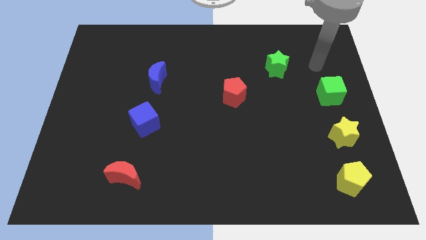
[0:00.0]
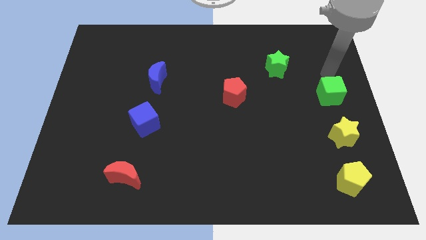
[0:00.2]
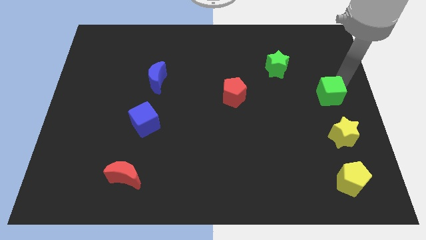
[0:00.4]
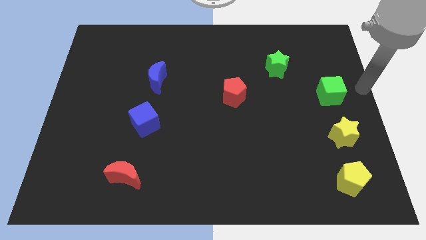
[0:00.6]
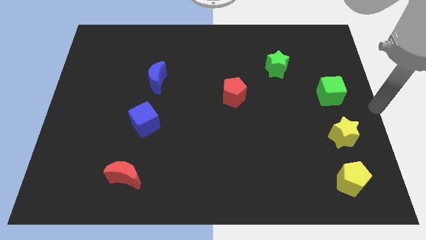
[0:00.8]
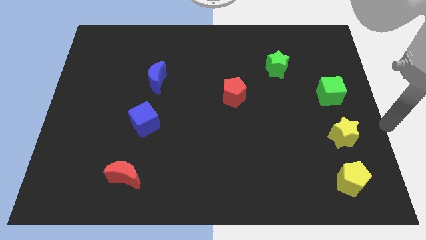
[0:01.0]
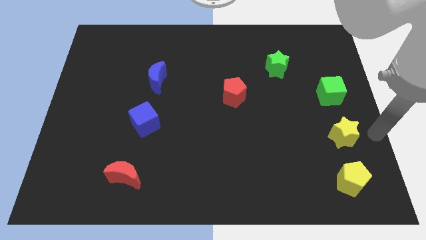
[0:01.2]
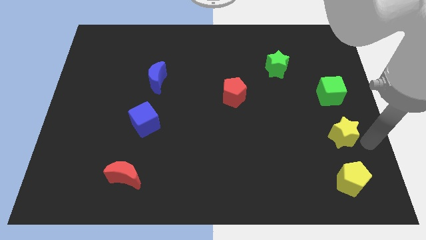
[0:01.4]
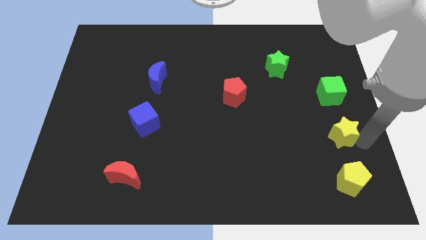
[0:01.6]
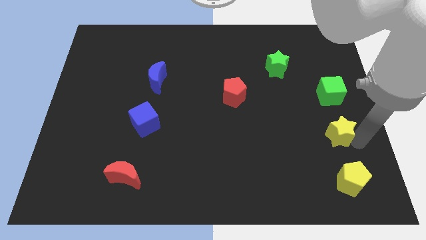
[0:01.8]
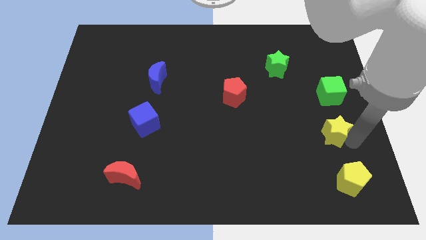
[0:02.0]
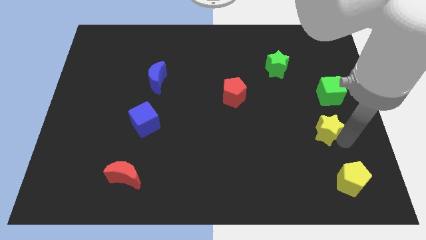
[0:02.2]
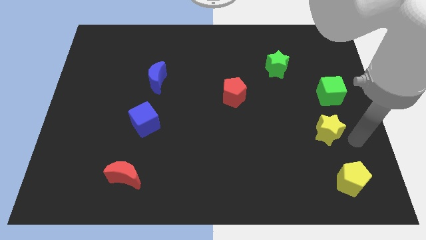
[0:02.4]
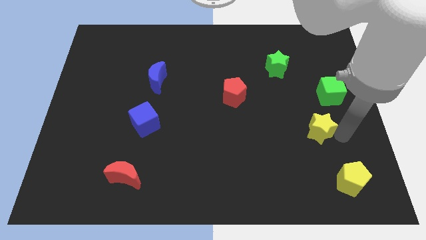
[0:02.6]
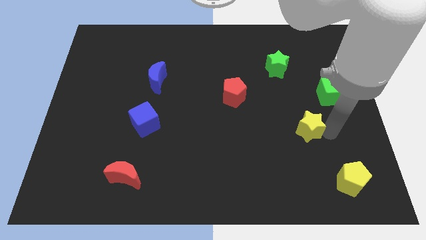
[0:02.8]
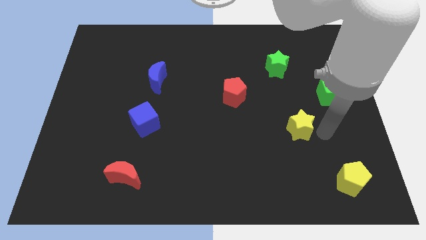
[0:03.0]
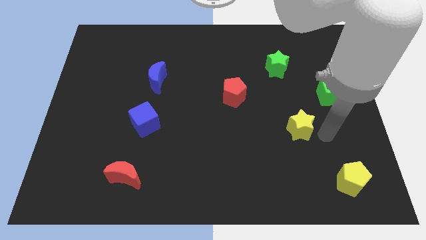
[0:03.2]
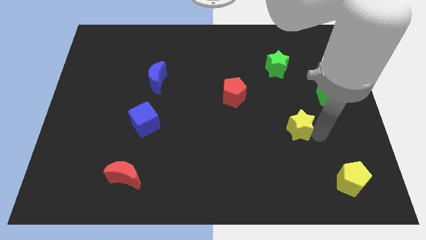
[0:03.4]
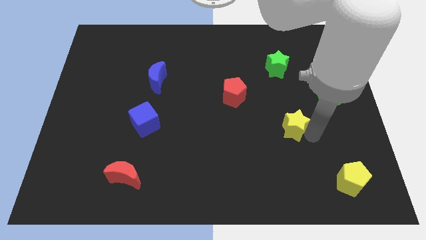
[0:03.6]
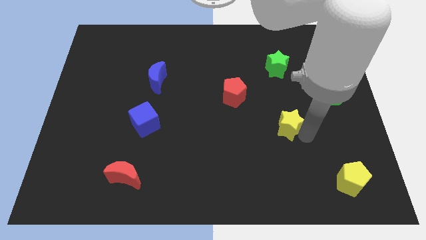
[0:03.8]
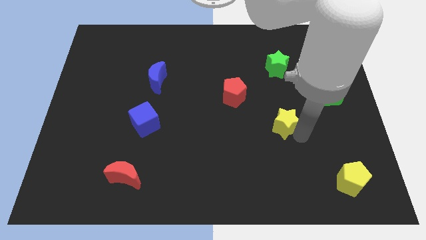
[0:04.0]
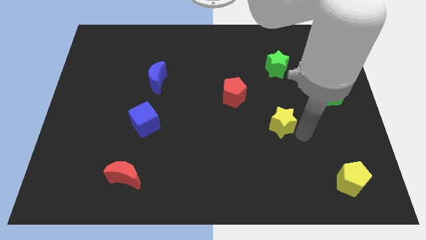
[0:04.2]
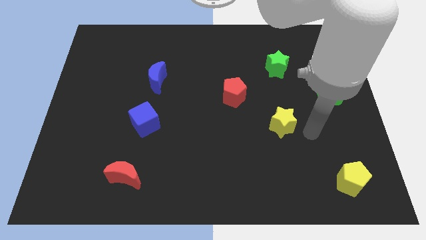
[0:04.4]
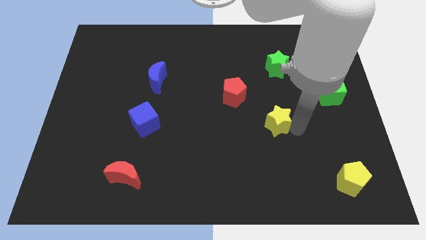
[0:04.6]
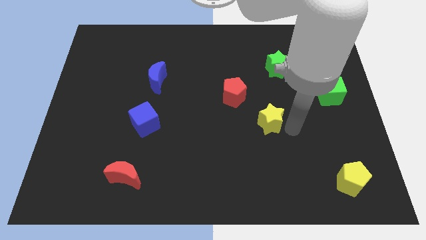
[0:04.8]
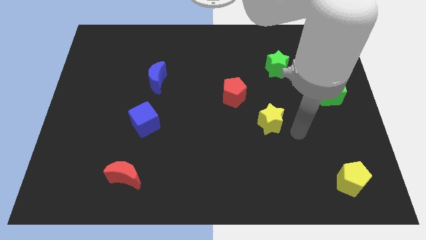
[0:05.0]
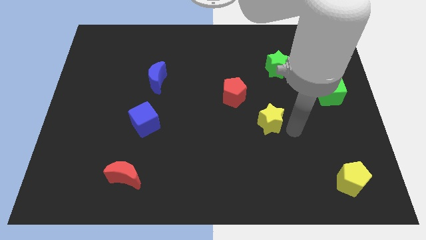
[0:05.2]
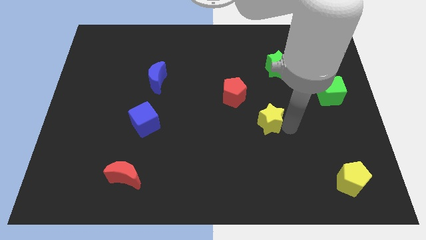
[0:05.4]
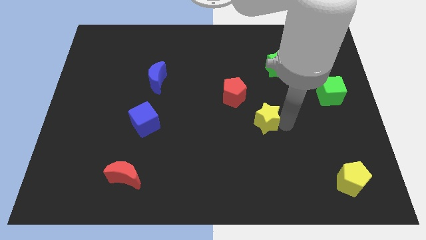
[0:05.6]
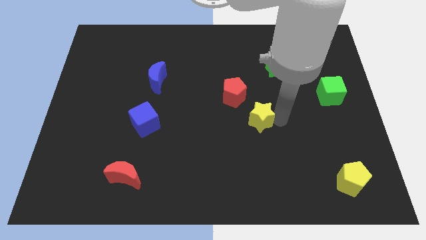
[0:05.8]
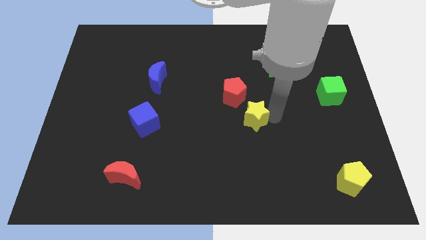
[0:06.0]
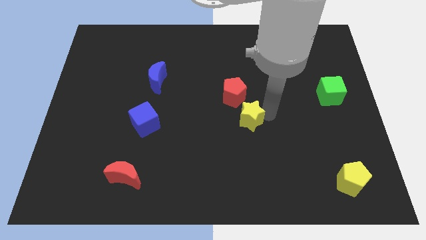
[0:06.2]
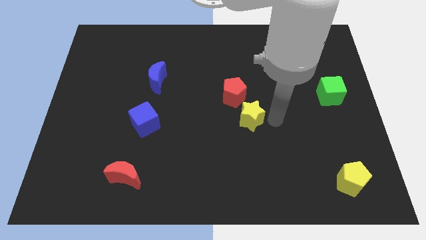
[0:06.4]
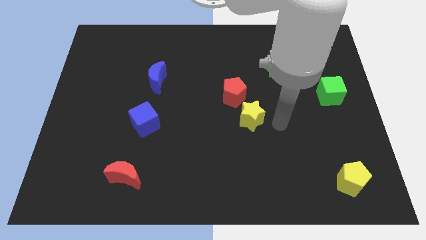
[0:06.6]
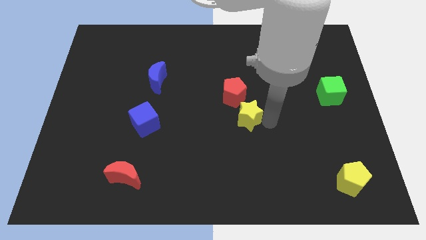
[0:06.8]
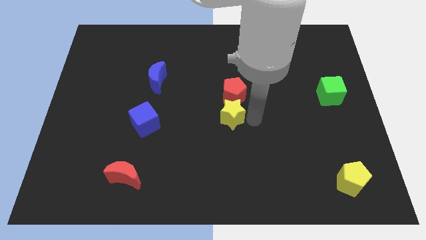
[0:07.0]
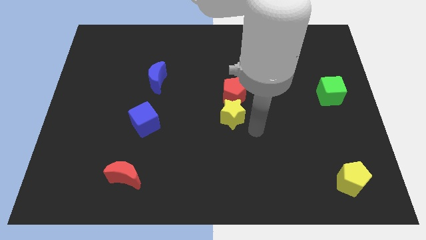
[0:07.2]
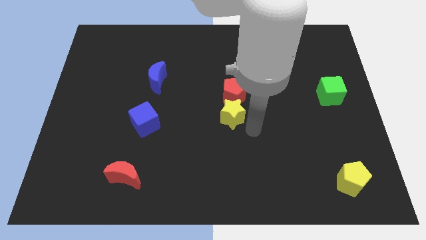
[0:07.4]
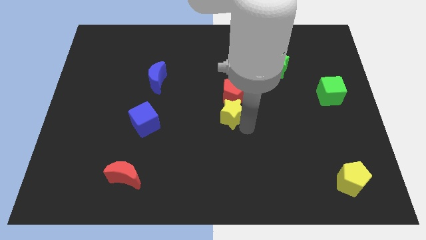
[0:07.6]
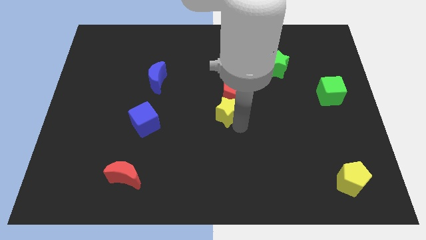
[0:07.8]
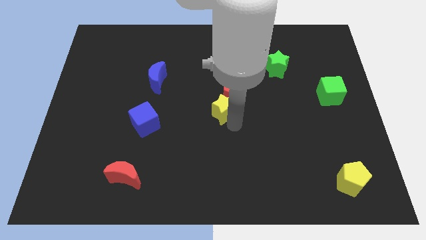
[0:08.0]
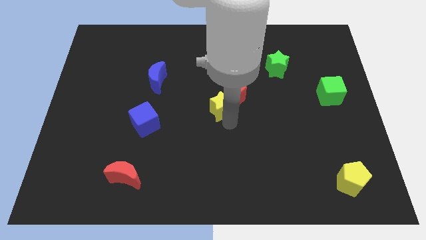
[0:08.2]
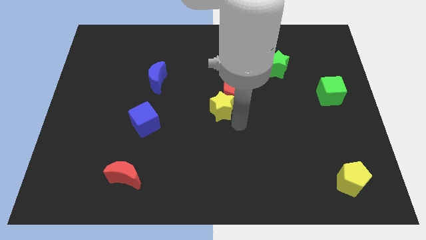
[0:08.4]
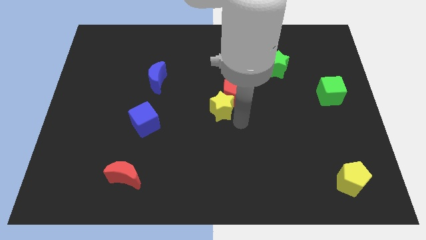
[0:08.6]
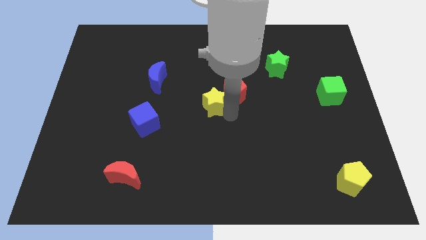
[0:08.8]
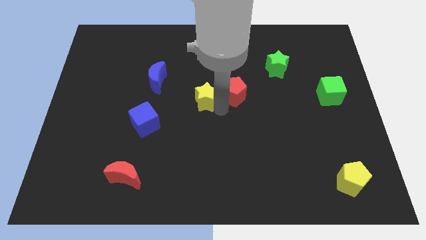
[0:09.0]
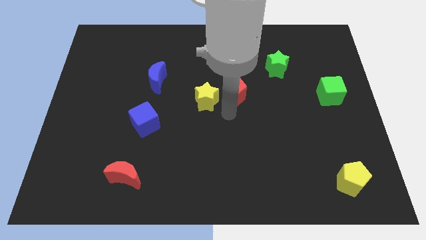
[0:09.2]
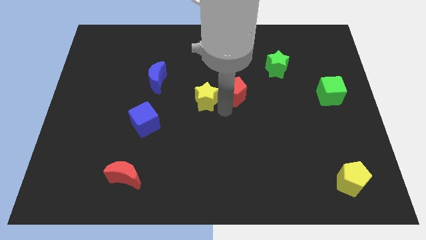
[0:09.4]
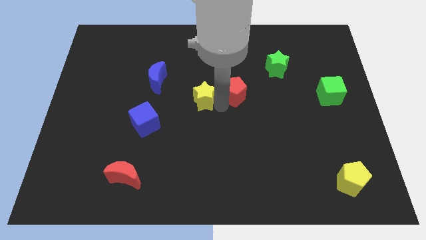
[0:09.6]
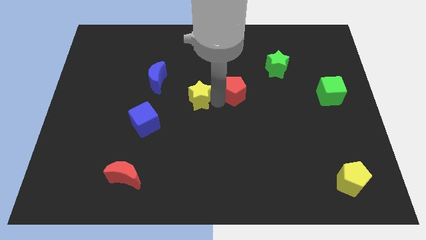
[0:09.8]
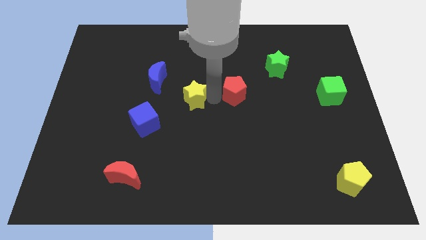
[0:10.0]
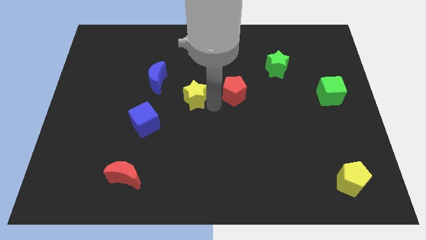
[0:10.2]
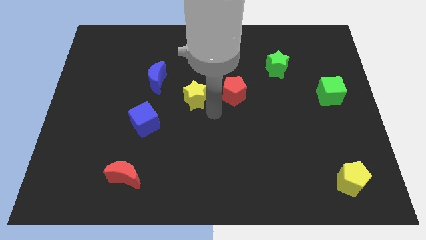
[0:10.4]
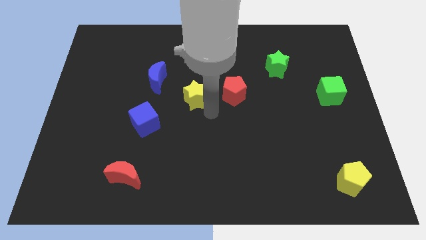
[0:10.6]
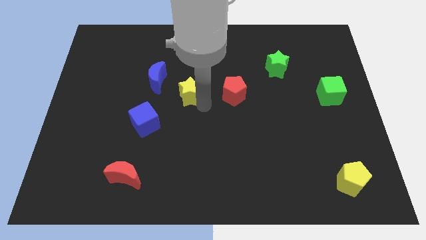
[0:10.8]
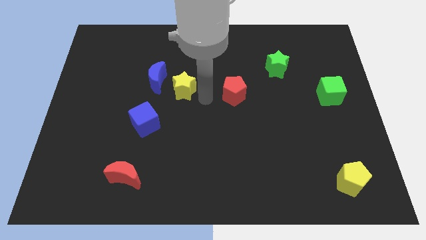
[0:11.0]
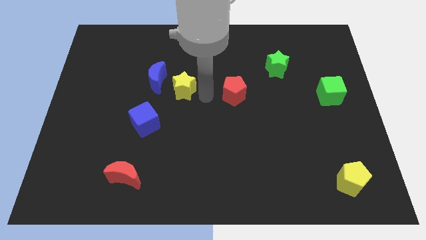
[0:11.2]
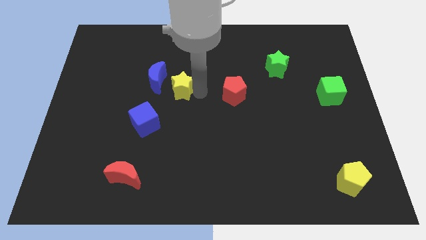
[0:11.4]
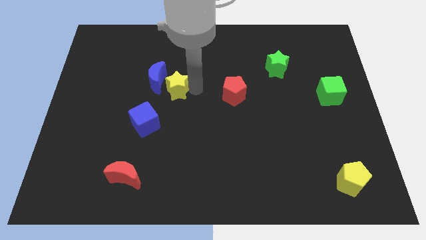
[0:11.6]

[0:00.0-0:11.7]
put the yellow star towards the blue moon

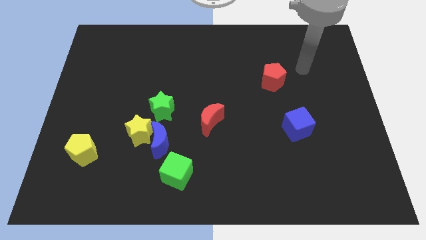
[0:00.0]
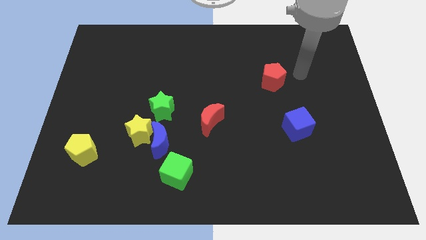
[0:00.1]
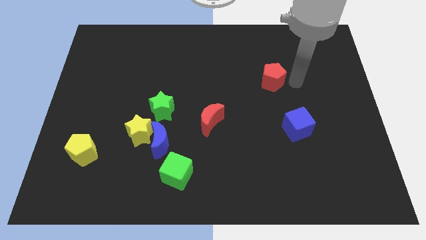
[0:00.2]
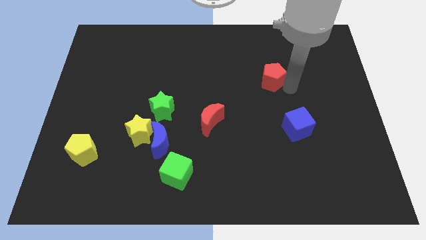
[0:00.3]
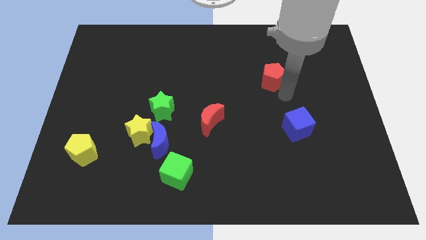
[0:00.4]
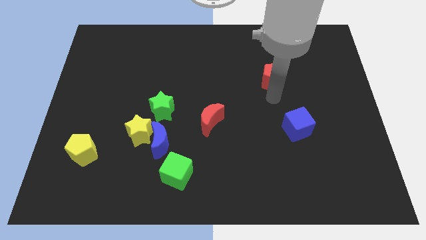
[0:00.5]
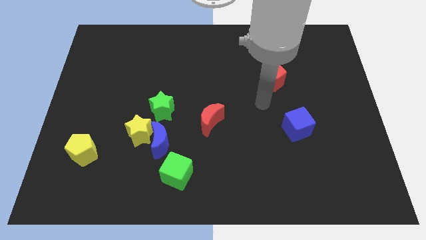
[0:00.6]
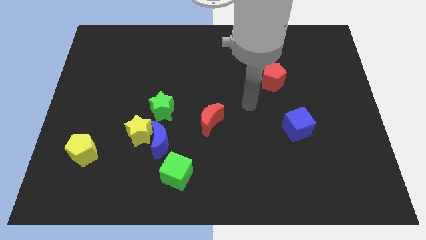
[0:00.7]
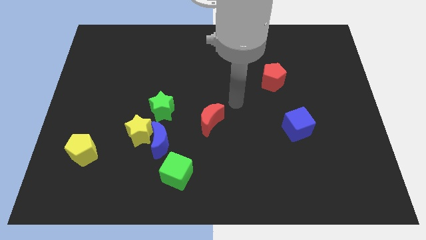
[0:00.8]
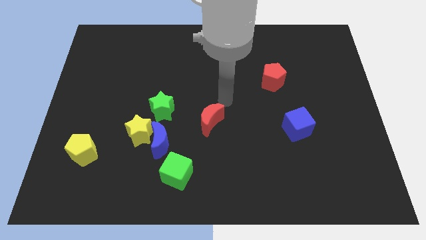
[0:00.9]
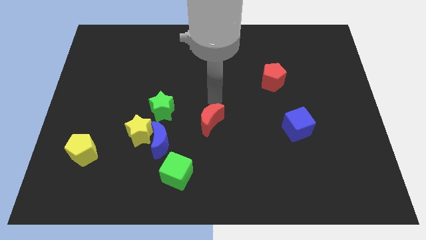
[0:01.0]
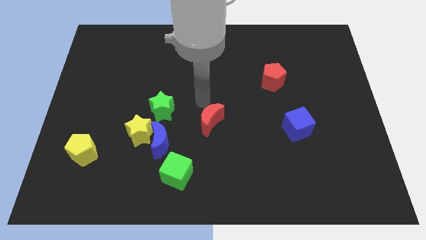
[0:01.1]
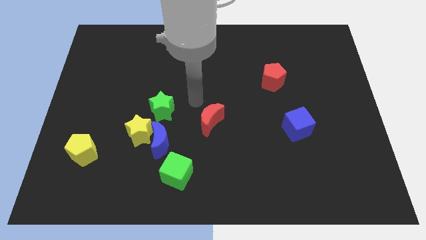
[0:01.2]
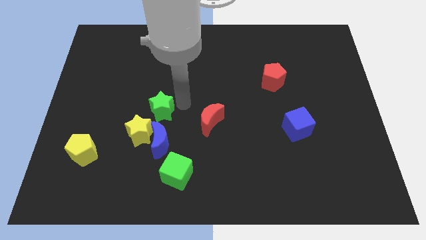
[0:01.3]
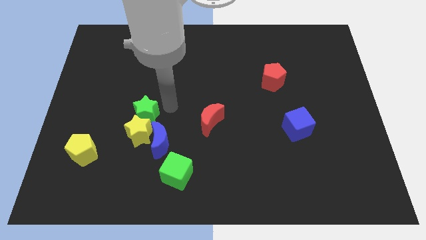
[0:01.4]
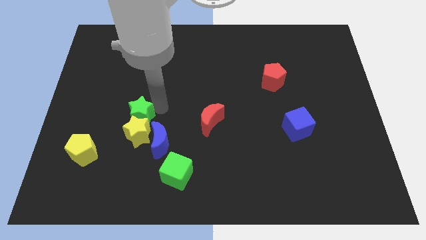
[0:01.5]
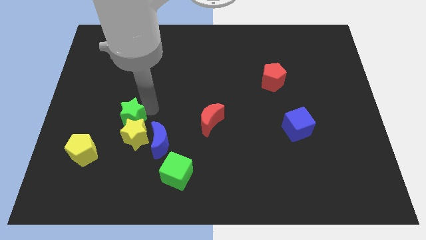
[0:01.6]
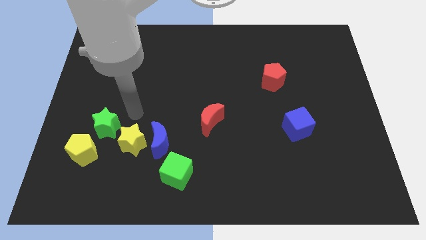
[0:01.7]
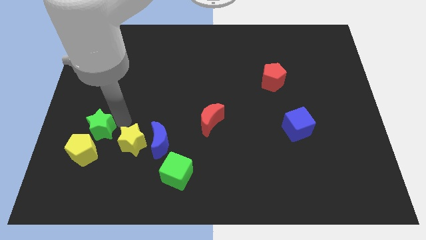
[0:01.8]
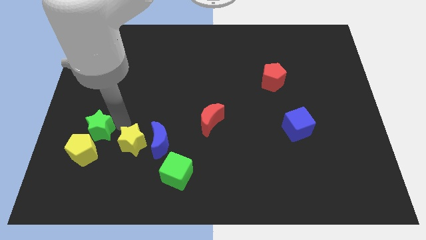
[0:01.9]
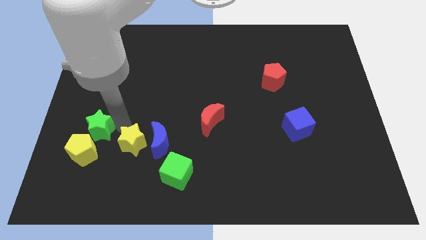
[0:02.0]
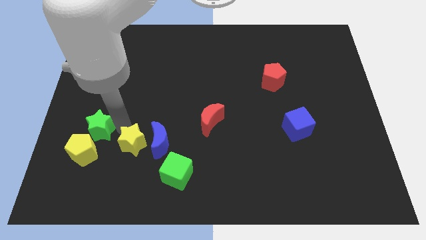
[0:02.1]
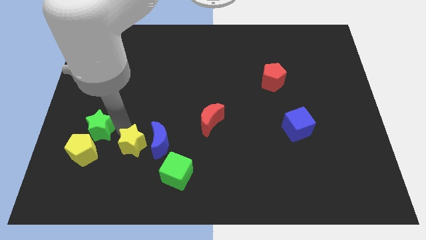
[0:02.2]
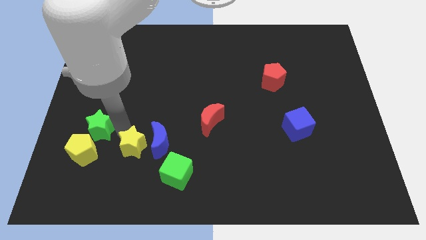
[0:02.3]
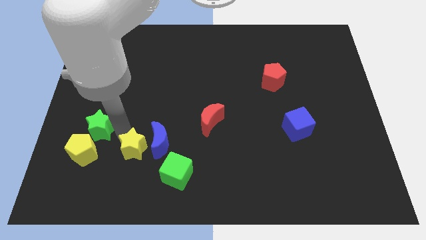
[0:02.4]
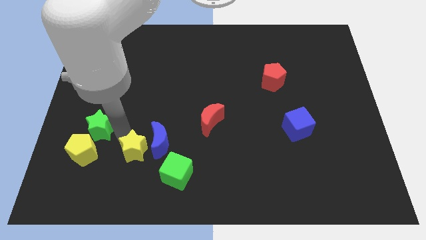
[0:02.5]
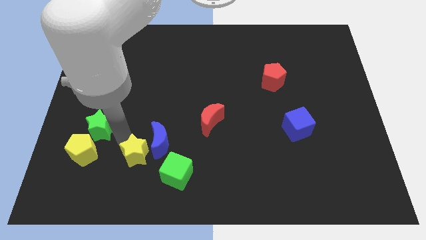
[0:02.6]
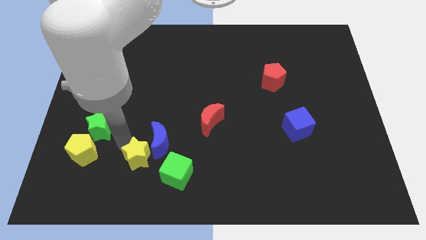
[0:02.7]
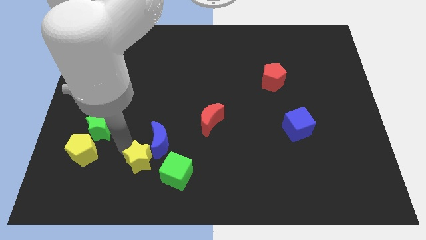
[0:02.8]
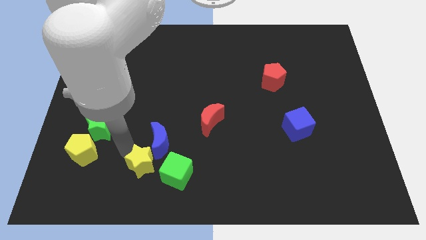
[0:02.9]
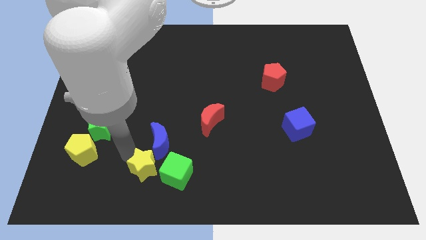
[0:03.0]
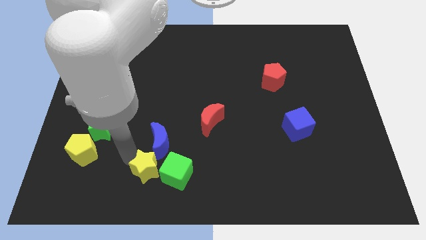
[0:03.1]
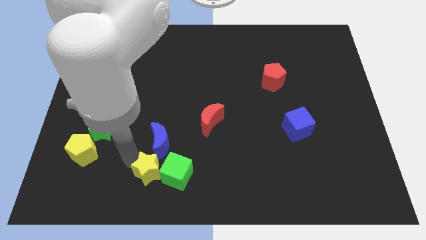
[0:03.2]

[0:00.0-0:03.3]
push the yellow star to the green cube
